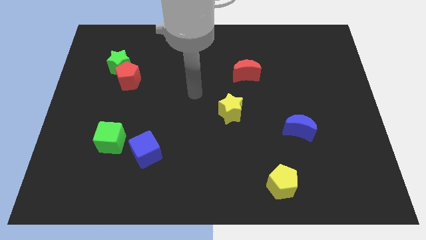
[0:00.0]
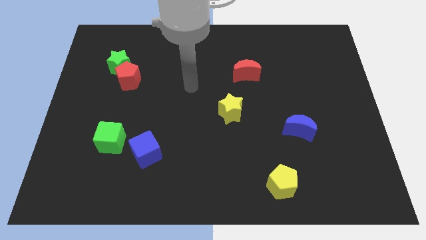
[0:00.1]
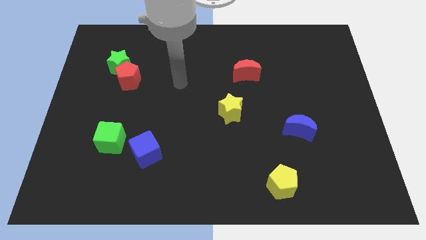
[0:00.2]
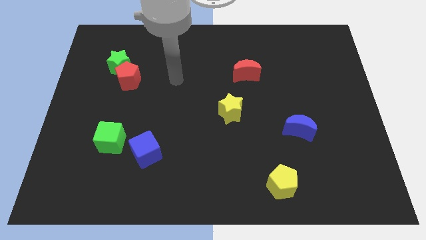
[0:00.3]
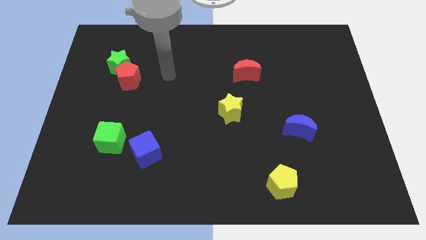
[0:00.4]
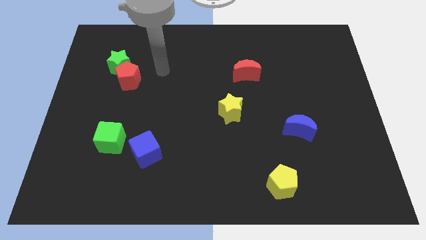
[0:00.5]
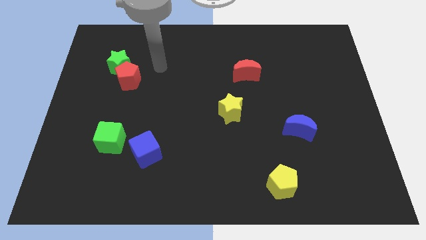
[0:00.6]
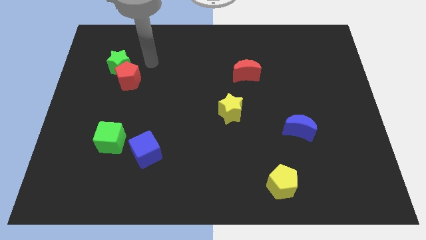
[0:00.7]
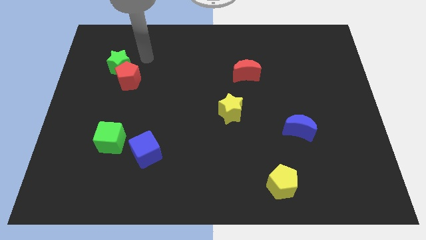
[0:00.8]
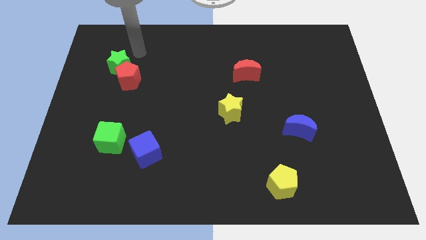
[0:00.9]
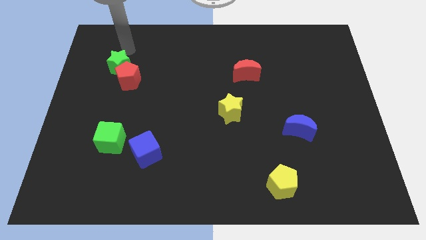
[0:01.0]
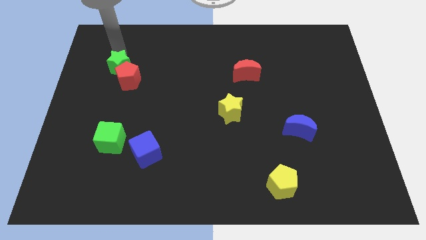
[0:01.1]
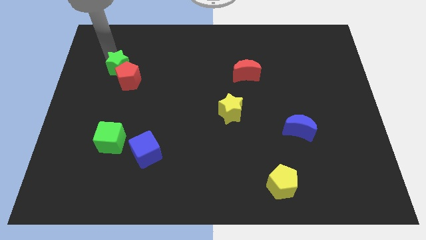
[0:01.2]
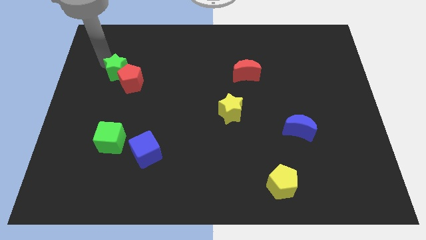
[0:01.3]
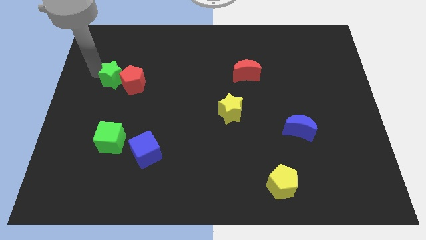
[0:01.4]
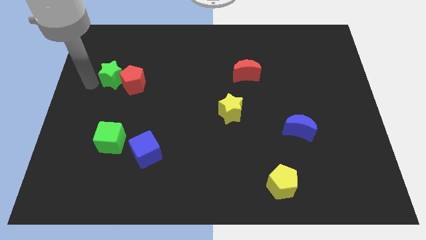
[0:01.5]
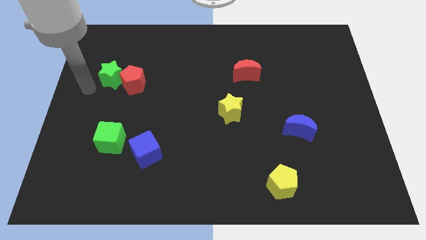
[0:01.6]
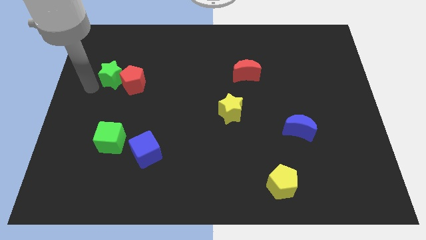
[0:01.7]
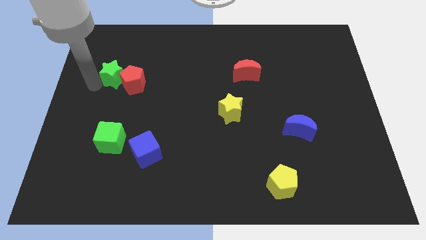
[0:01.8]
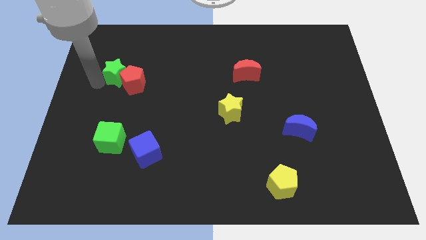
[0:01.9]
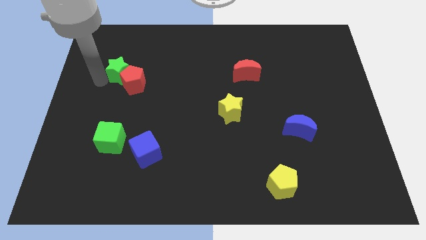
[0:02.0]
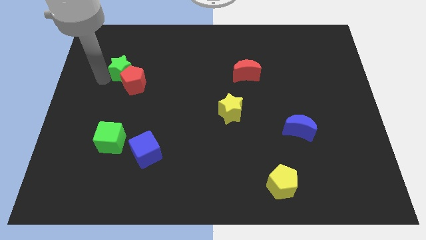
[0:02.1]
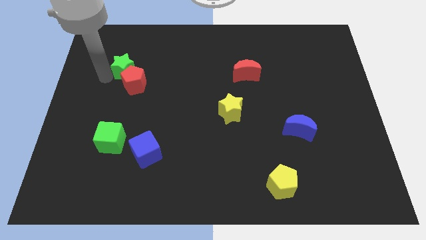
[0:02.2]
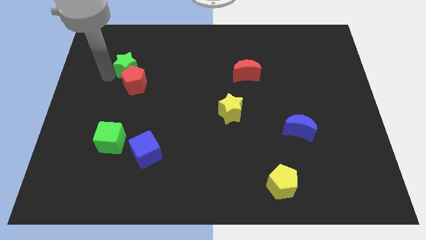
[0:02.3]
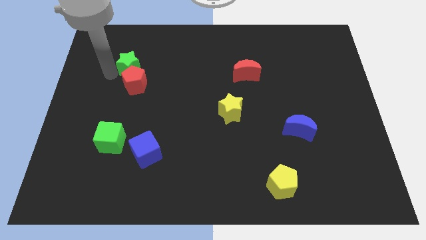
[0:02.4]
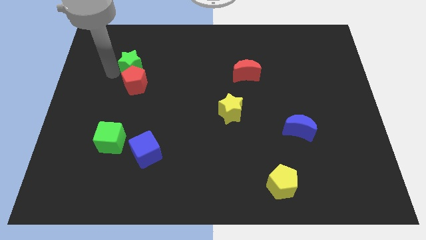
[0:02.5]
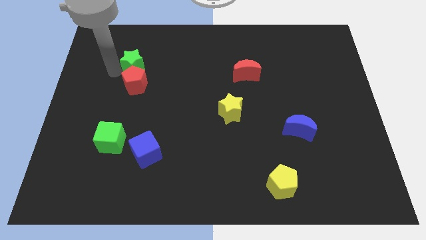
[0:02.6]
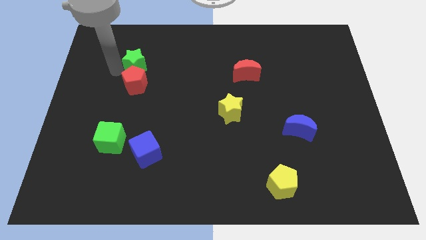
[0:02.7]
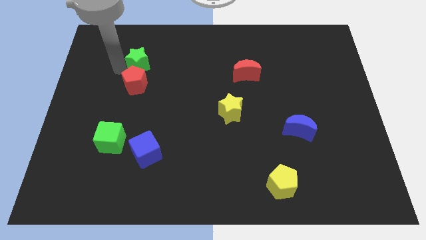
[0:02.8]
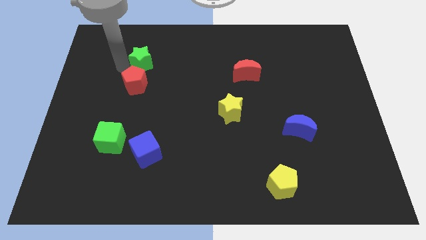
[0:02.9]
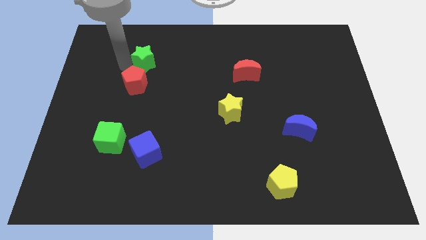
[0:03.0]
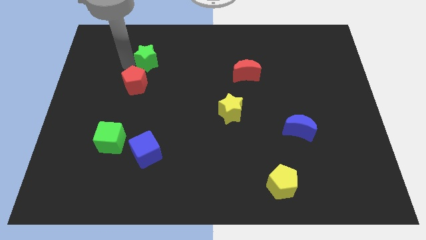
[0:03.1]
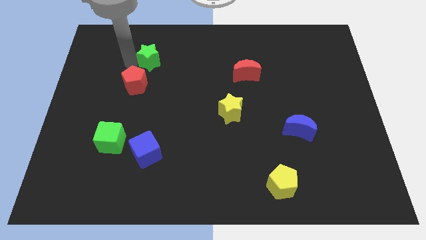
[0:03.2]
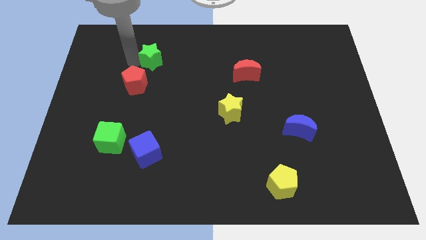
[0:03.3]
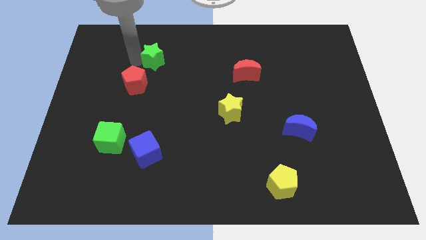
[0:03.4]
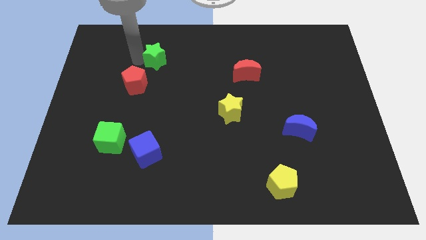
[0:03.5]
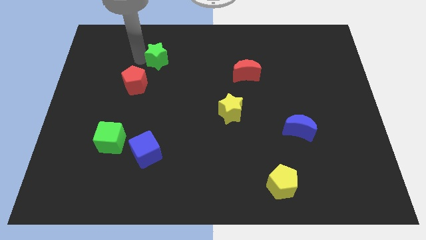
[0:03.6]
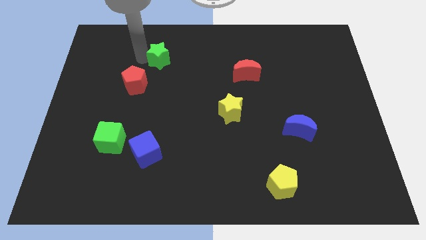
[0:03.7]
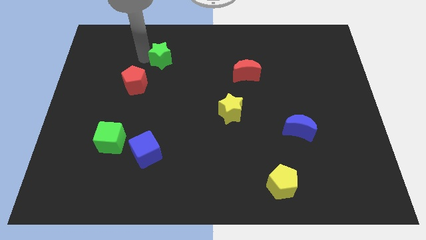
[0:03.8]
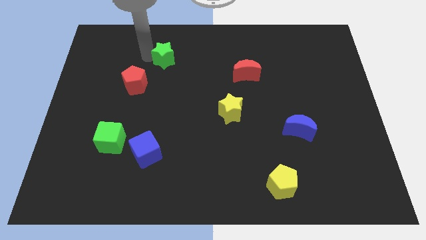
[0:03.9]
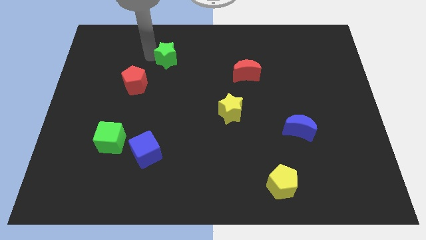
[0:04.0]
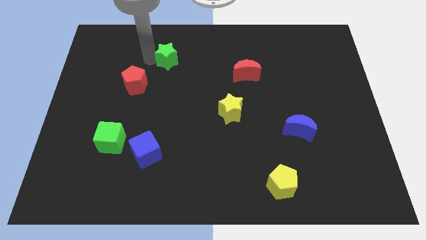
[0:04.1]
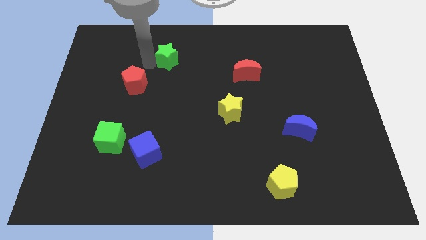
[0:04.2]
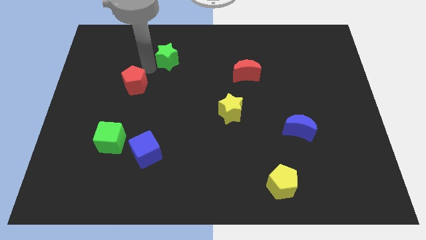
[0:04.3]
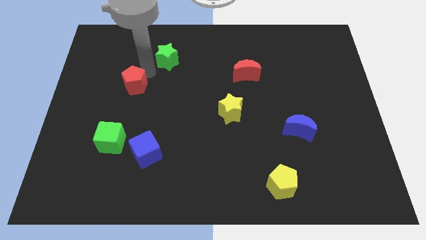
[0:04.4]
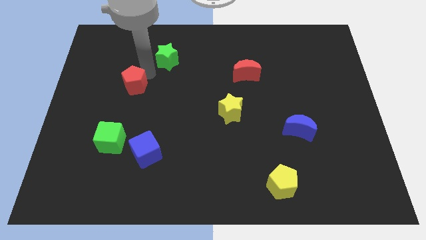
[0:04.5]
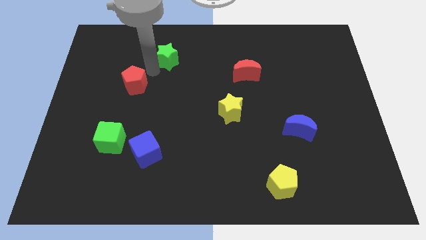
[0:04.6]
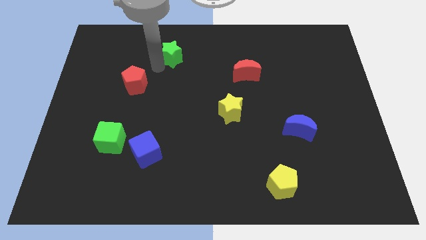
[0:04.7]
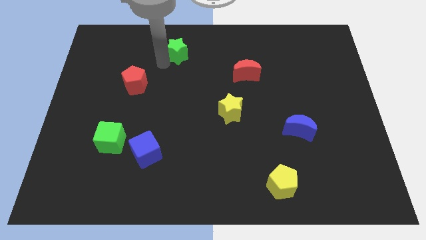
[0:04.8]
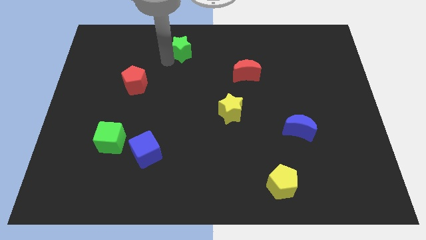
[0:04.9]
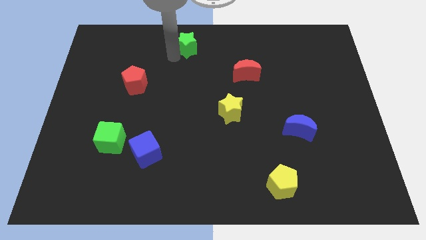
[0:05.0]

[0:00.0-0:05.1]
push the green star to the towards your base

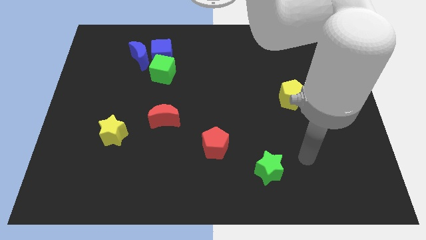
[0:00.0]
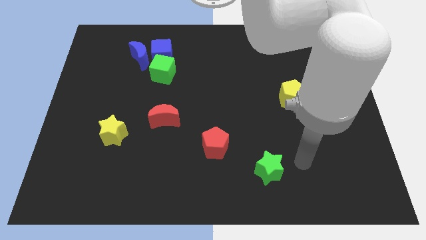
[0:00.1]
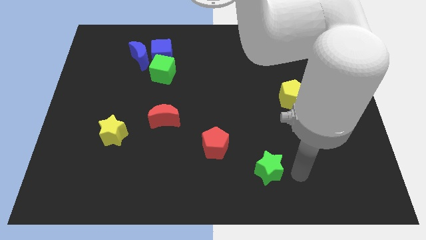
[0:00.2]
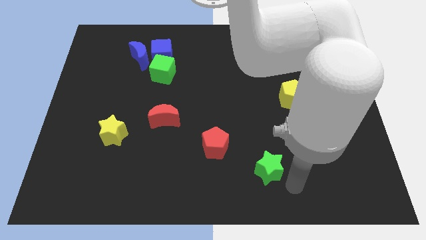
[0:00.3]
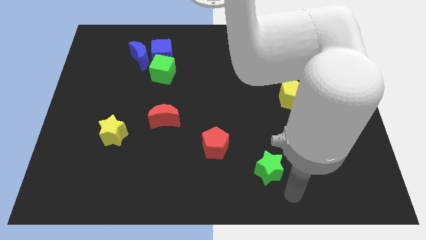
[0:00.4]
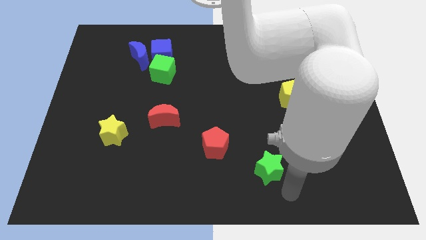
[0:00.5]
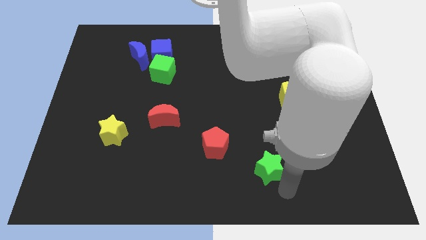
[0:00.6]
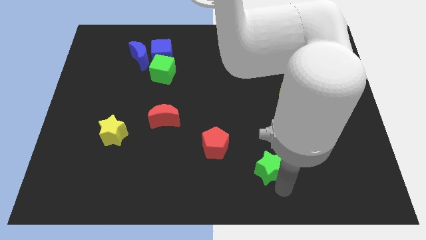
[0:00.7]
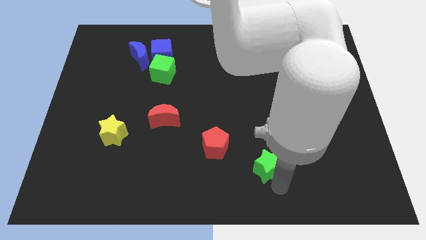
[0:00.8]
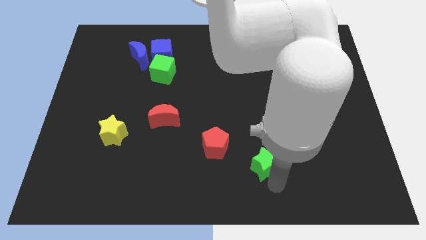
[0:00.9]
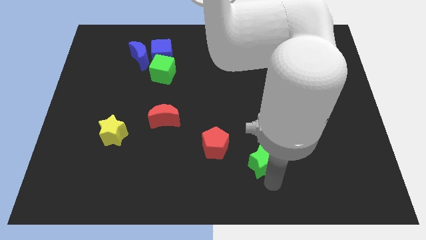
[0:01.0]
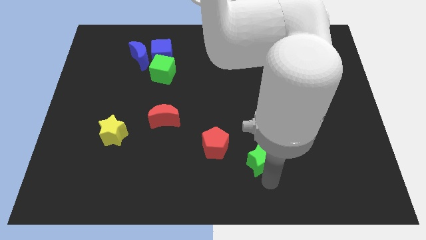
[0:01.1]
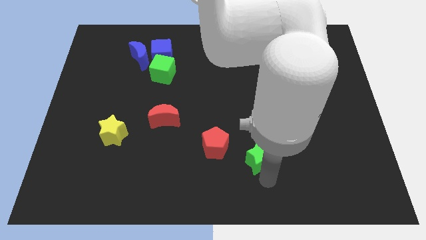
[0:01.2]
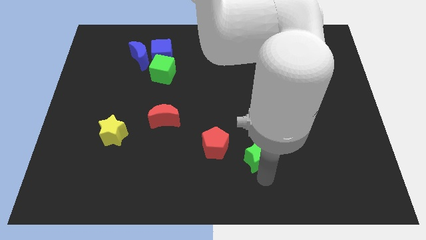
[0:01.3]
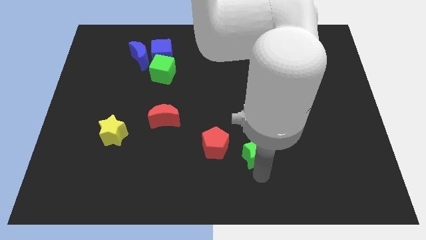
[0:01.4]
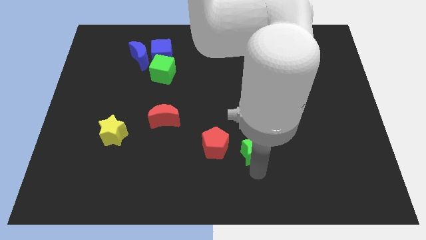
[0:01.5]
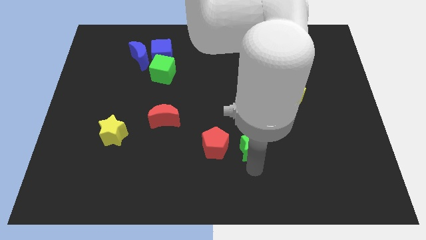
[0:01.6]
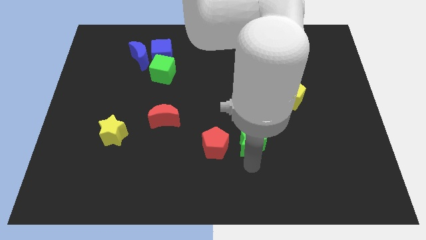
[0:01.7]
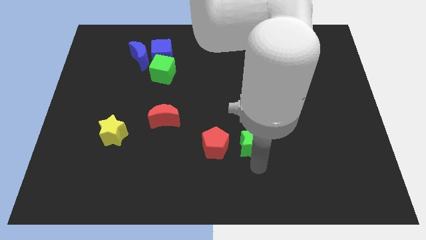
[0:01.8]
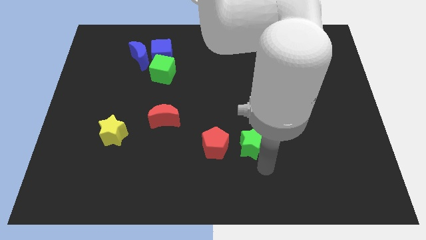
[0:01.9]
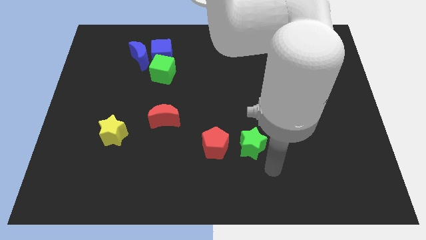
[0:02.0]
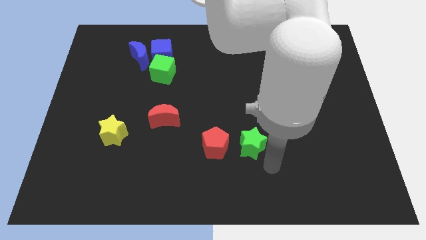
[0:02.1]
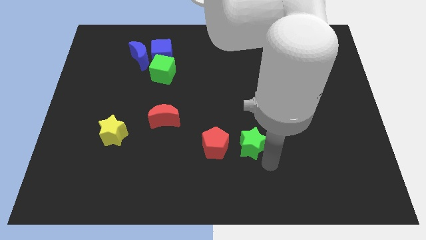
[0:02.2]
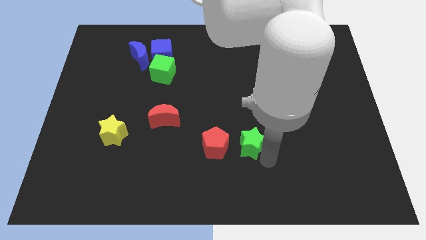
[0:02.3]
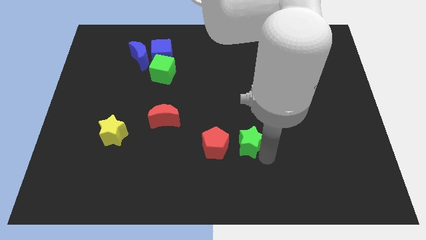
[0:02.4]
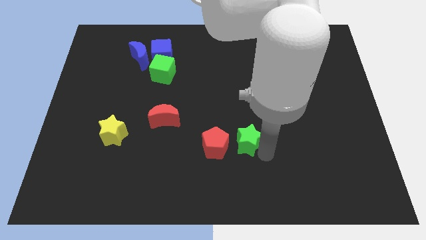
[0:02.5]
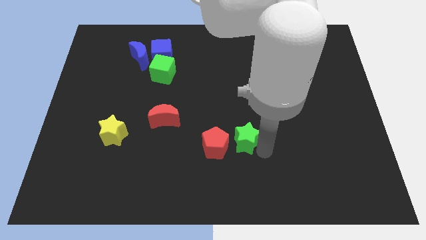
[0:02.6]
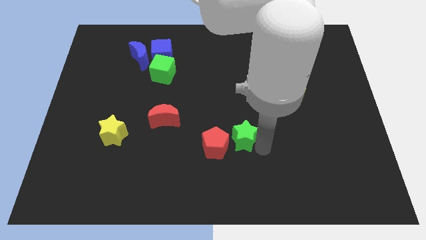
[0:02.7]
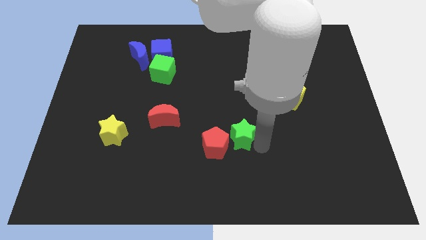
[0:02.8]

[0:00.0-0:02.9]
push the green star to the center of the board
